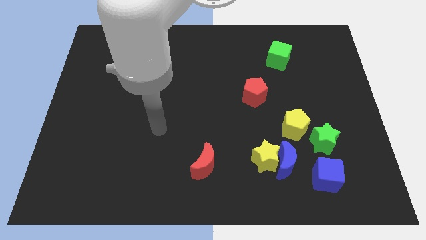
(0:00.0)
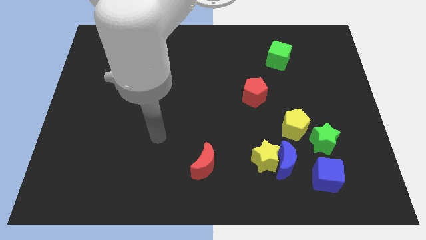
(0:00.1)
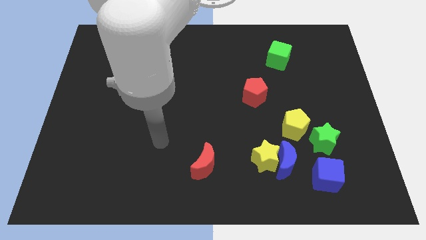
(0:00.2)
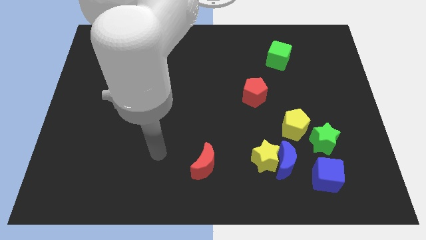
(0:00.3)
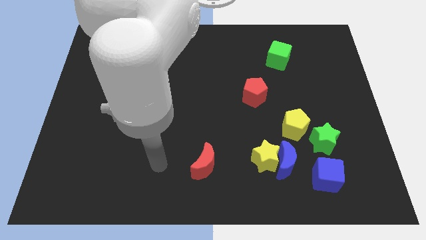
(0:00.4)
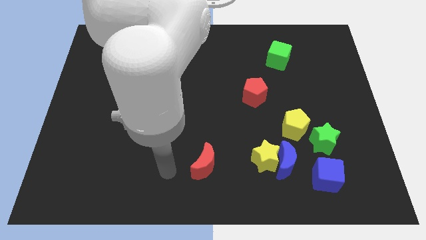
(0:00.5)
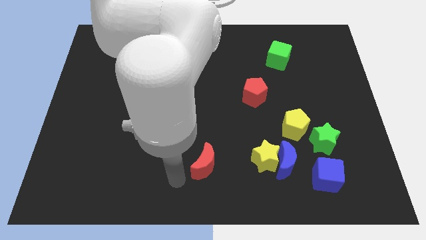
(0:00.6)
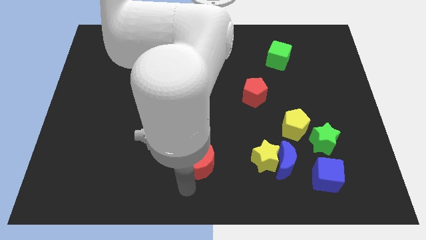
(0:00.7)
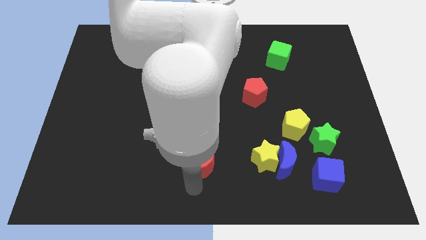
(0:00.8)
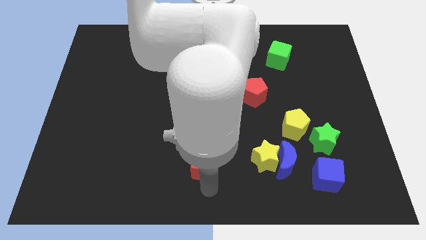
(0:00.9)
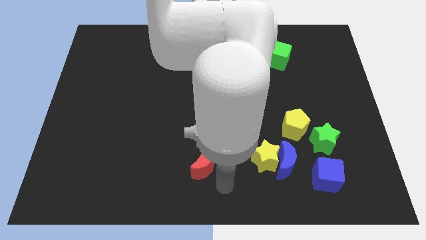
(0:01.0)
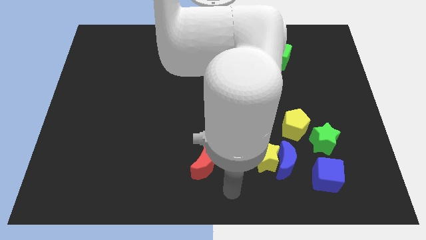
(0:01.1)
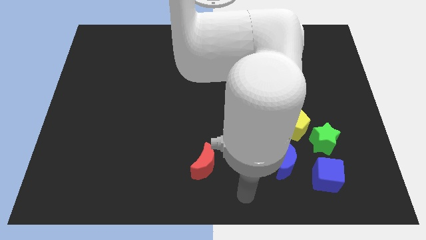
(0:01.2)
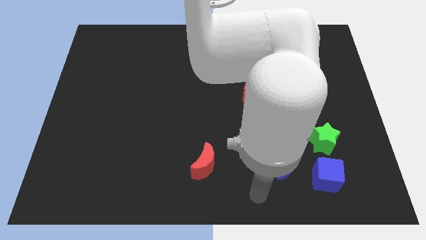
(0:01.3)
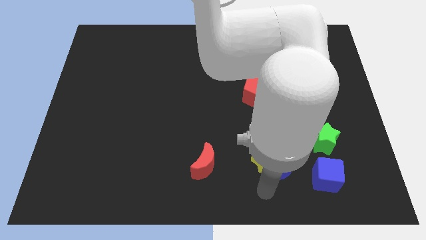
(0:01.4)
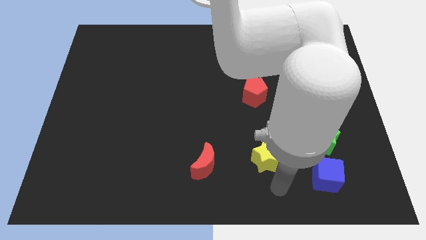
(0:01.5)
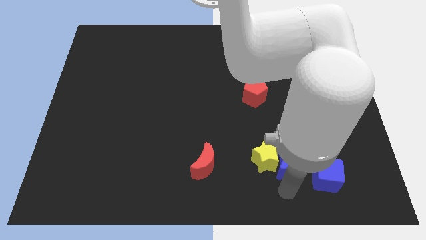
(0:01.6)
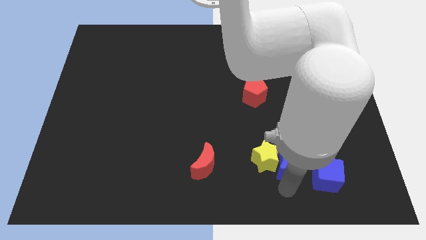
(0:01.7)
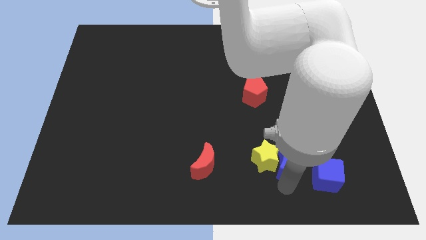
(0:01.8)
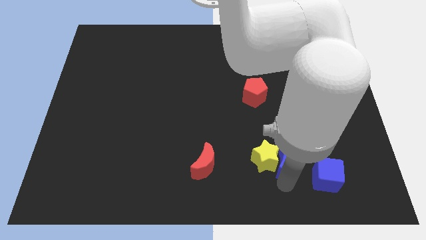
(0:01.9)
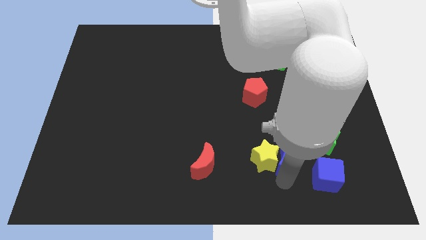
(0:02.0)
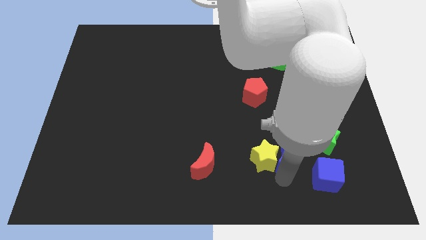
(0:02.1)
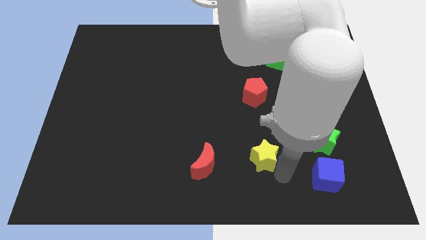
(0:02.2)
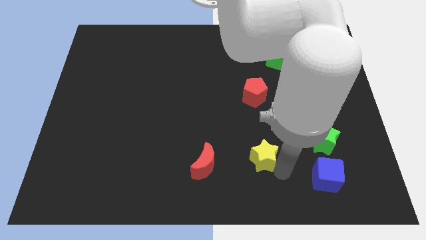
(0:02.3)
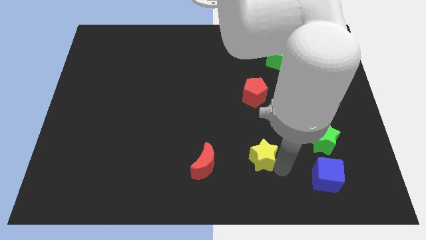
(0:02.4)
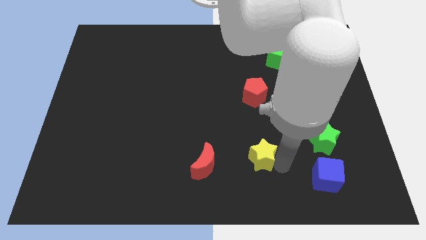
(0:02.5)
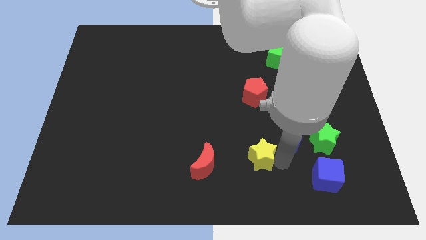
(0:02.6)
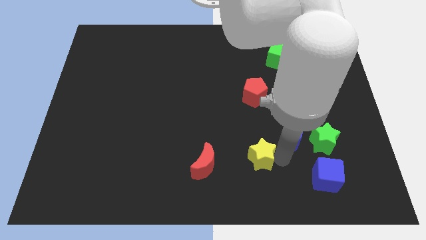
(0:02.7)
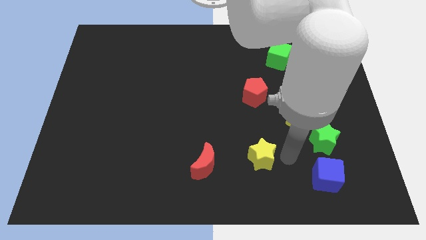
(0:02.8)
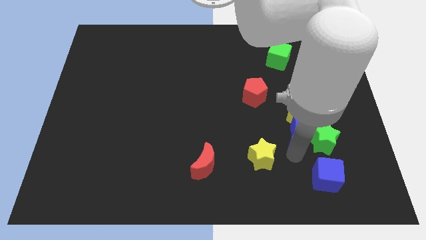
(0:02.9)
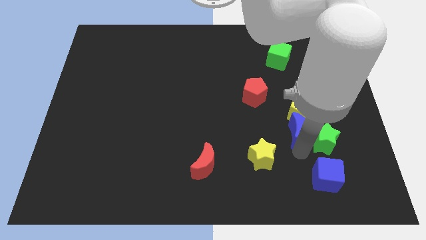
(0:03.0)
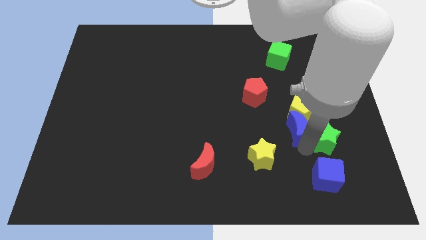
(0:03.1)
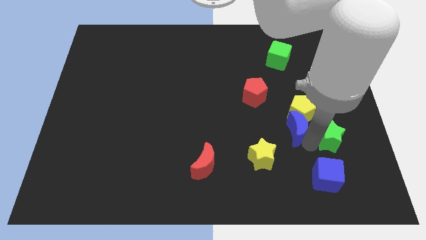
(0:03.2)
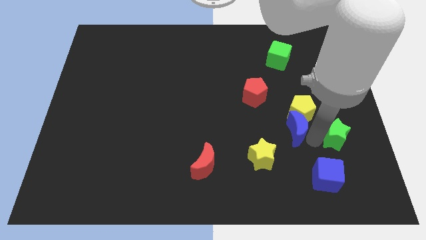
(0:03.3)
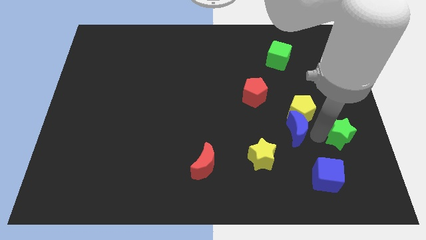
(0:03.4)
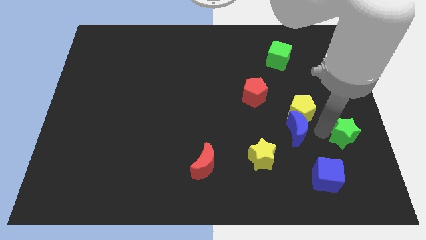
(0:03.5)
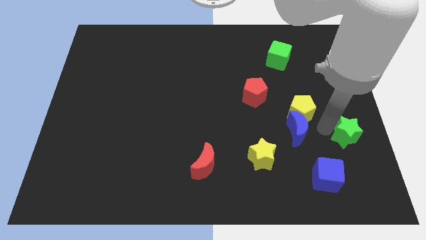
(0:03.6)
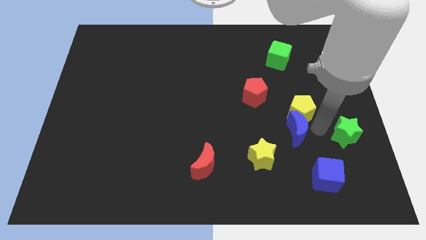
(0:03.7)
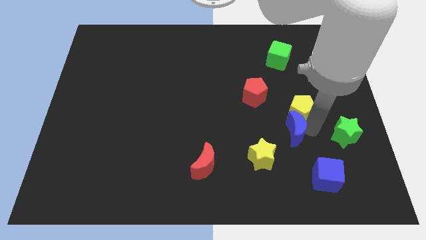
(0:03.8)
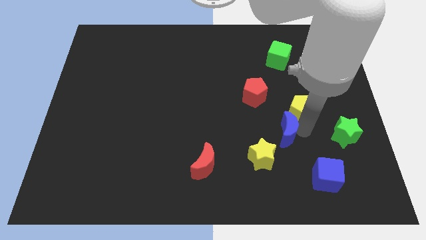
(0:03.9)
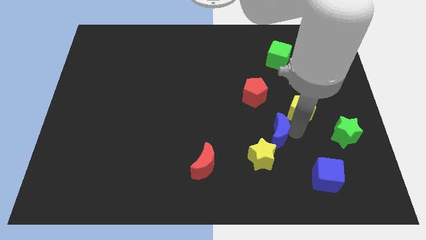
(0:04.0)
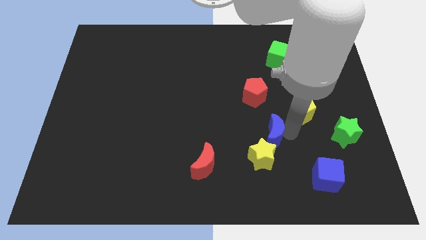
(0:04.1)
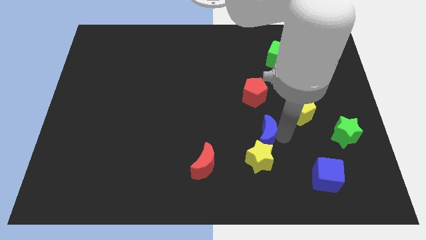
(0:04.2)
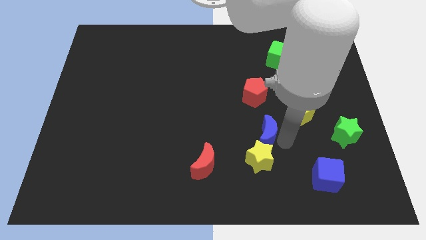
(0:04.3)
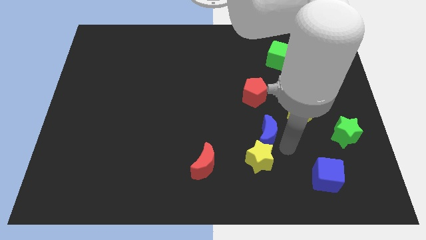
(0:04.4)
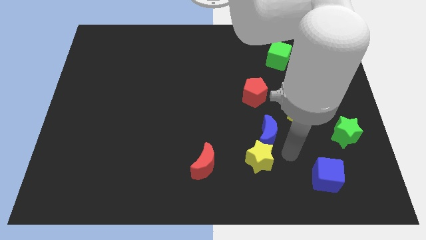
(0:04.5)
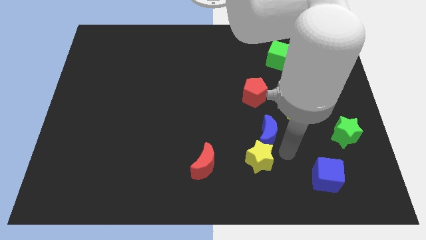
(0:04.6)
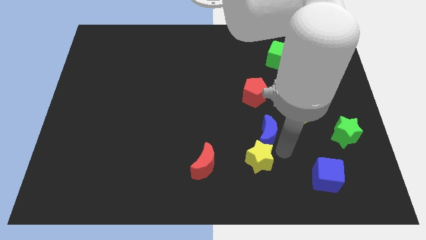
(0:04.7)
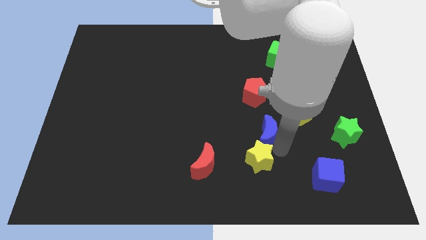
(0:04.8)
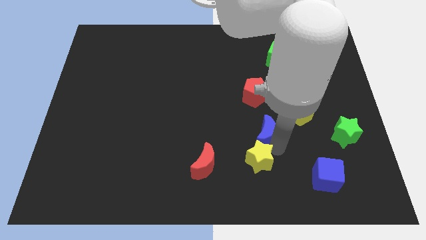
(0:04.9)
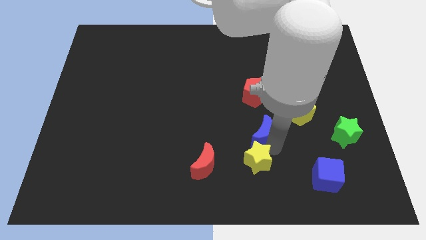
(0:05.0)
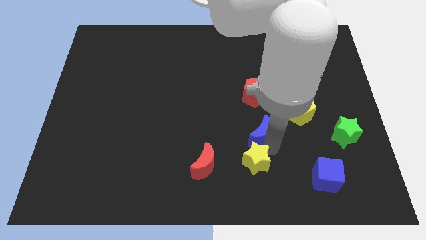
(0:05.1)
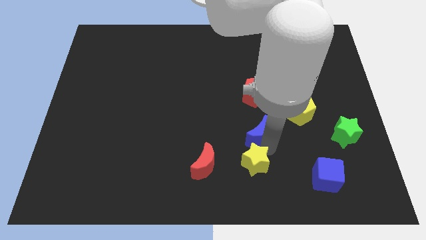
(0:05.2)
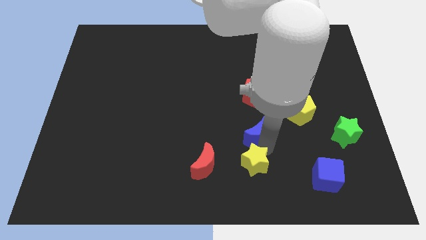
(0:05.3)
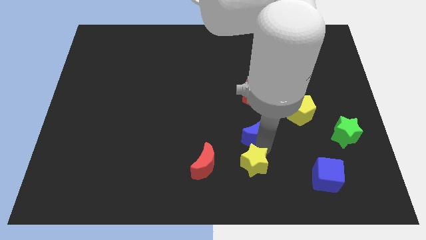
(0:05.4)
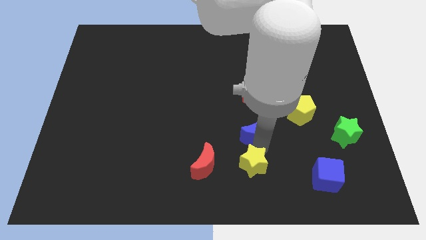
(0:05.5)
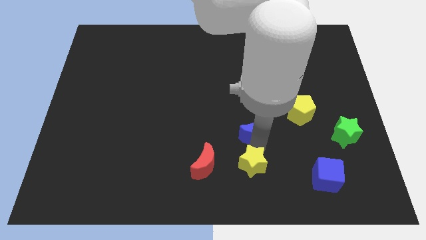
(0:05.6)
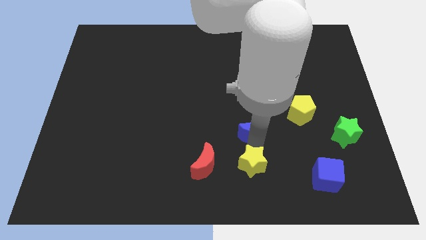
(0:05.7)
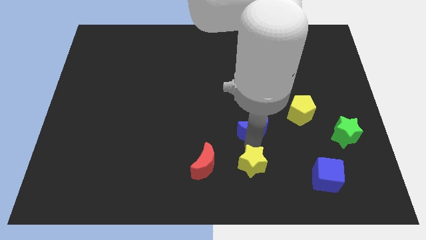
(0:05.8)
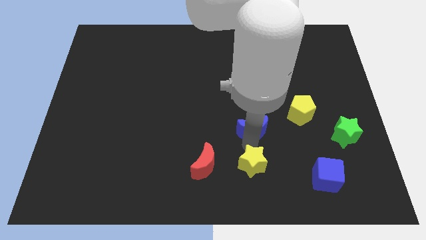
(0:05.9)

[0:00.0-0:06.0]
move the blue moon to the center
